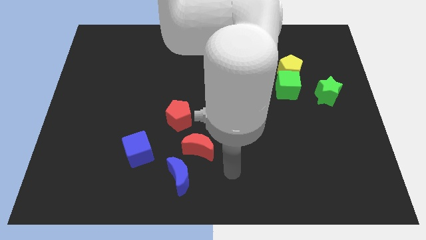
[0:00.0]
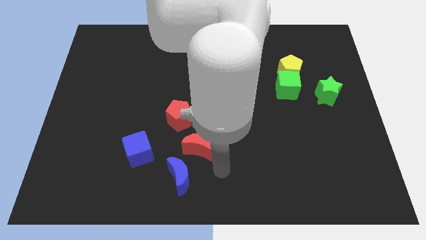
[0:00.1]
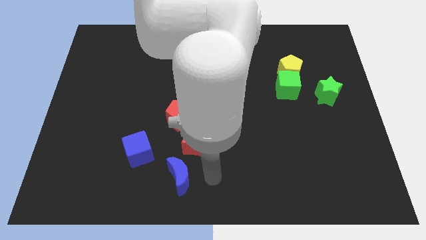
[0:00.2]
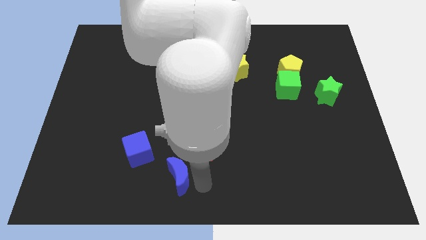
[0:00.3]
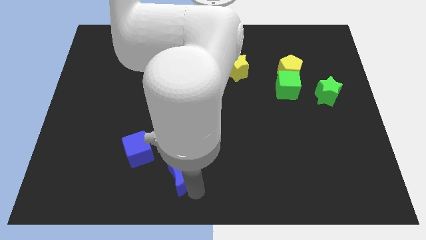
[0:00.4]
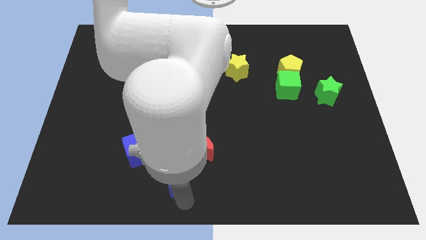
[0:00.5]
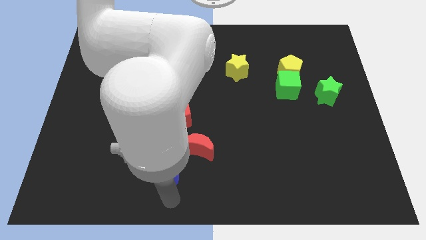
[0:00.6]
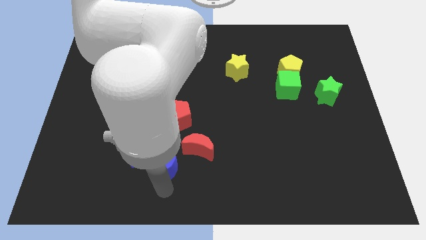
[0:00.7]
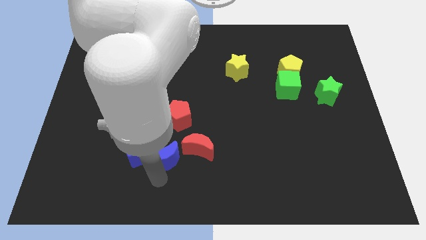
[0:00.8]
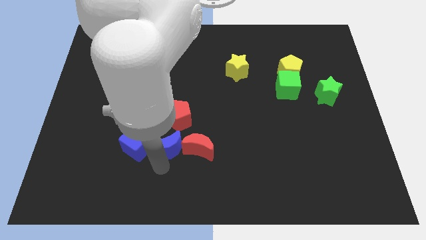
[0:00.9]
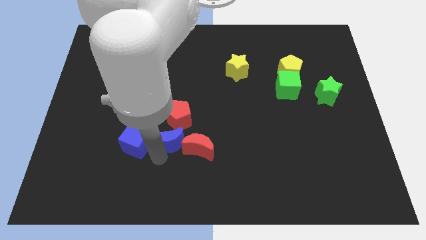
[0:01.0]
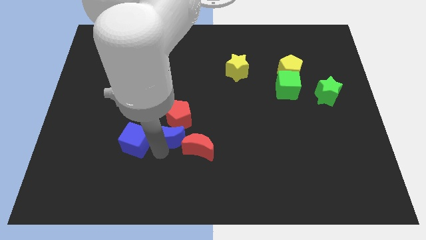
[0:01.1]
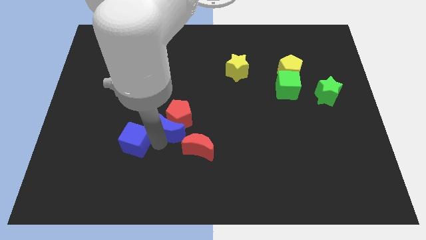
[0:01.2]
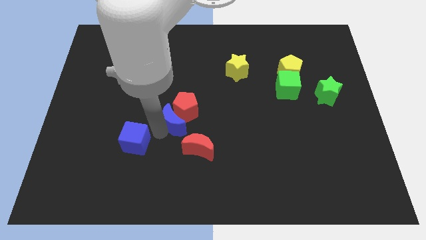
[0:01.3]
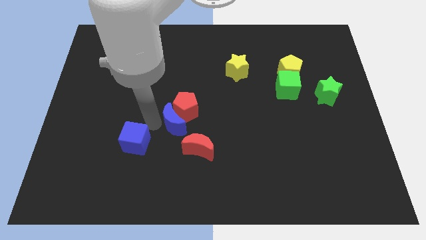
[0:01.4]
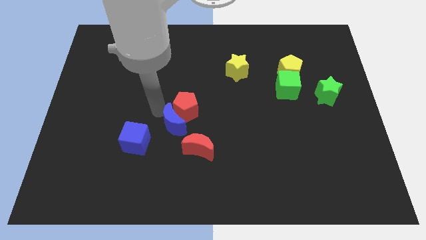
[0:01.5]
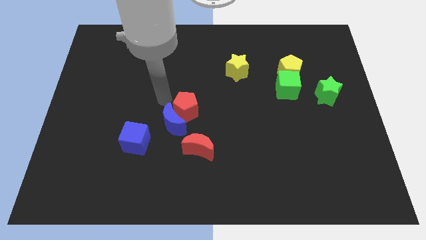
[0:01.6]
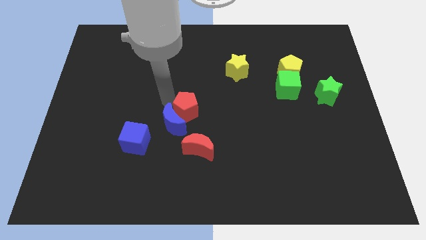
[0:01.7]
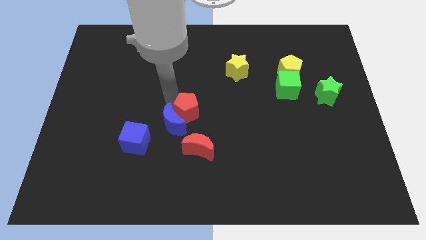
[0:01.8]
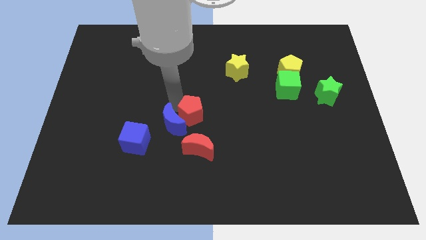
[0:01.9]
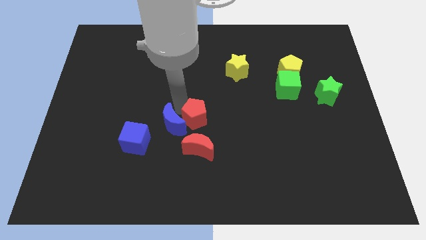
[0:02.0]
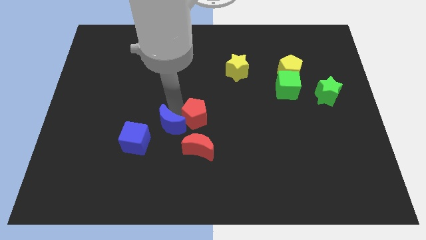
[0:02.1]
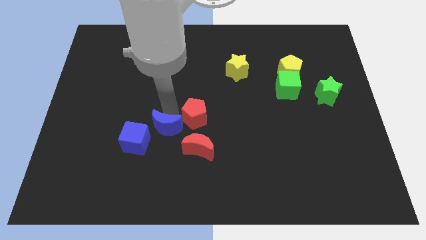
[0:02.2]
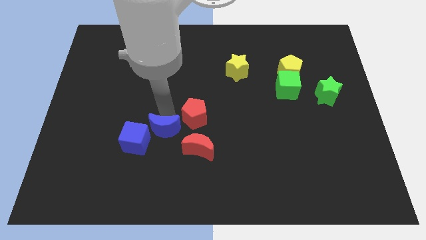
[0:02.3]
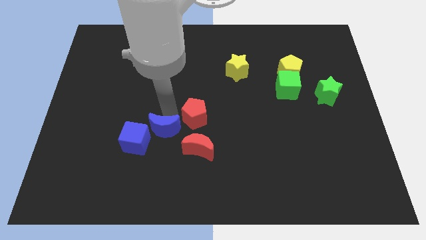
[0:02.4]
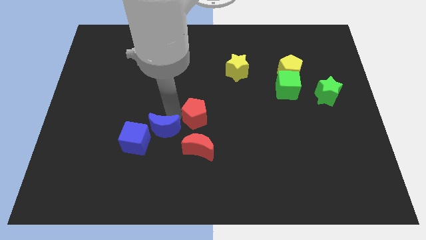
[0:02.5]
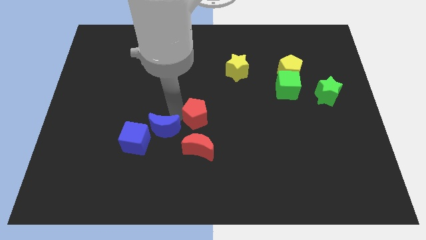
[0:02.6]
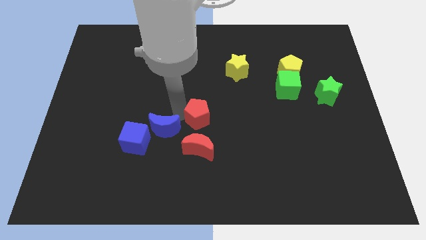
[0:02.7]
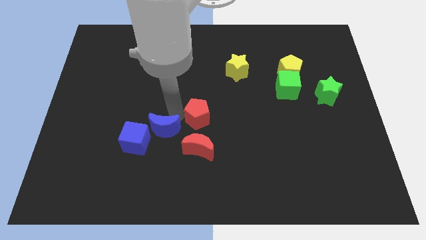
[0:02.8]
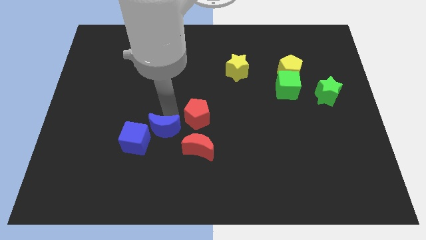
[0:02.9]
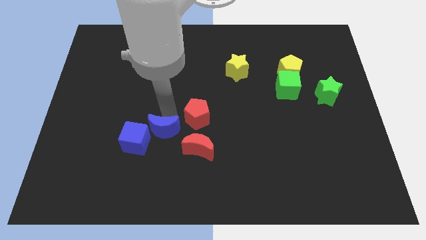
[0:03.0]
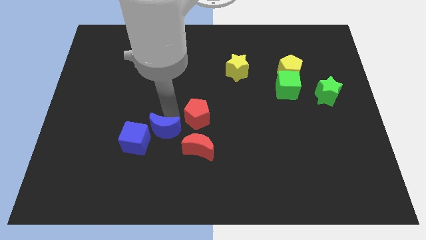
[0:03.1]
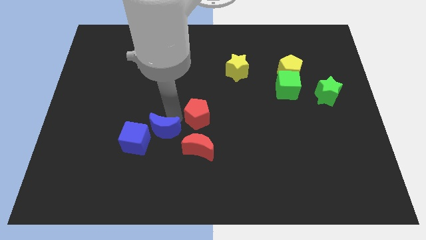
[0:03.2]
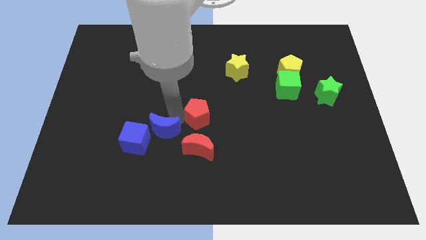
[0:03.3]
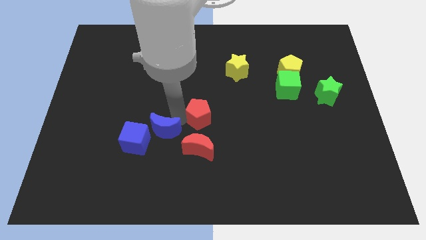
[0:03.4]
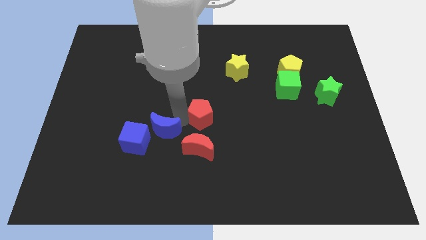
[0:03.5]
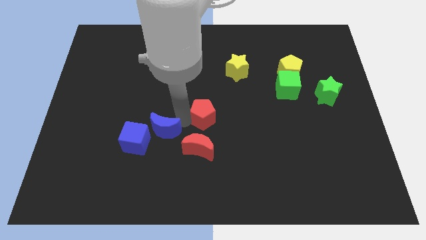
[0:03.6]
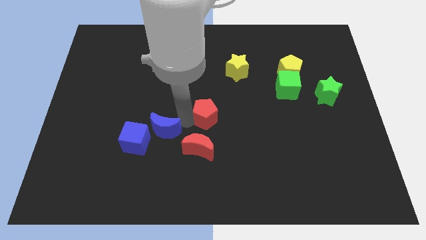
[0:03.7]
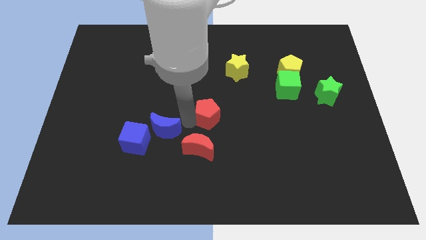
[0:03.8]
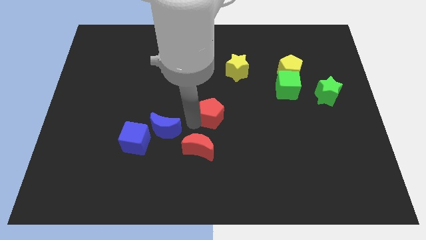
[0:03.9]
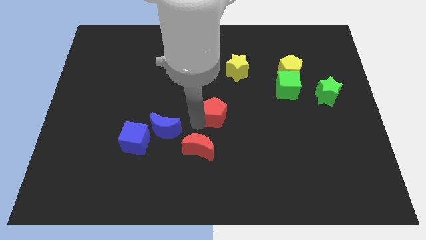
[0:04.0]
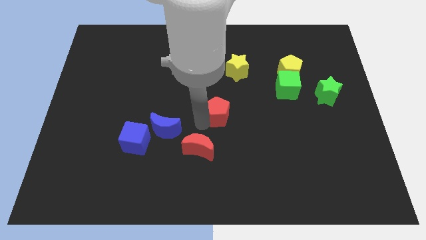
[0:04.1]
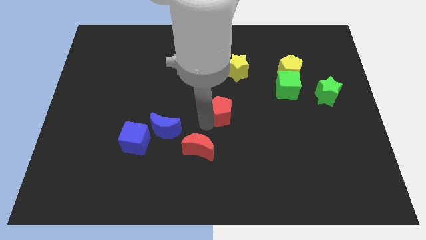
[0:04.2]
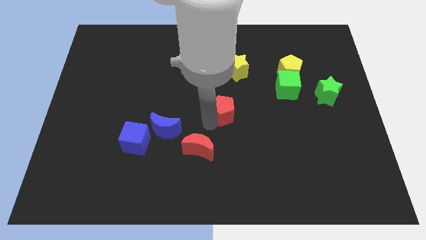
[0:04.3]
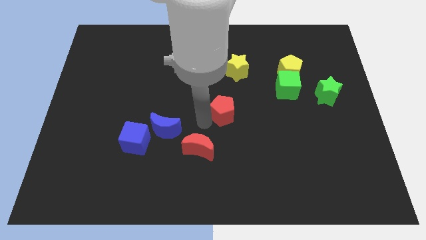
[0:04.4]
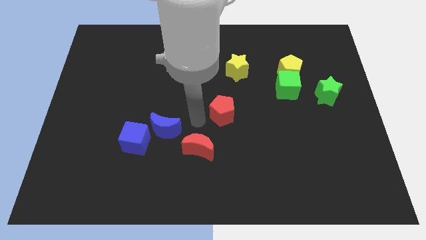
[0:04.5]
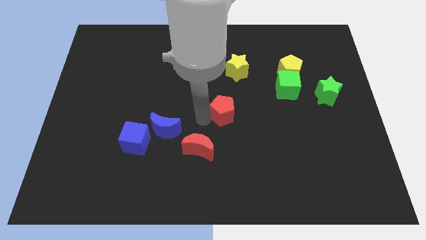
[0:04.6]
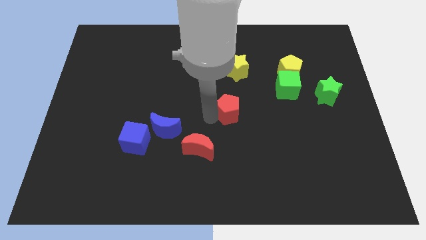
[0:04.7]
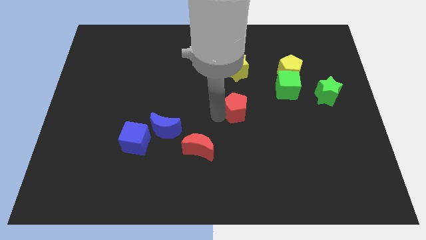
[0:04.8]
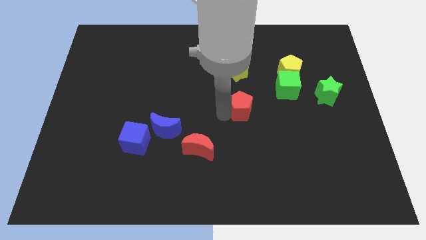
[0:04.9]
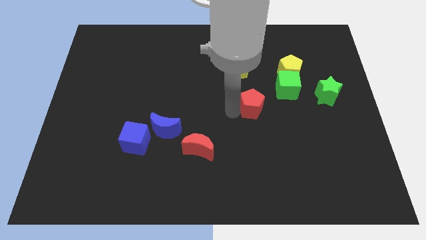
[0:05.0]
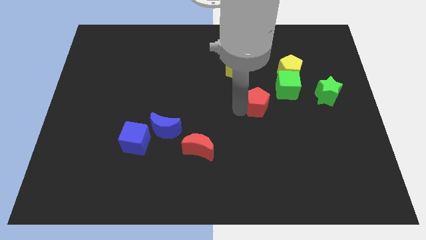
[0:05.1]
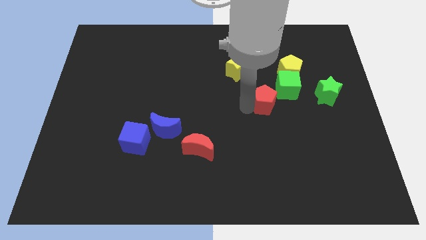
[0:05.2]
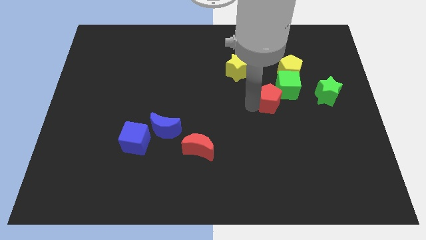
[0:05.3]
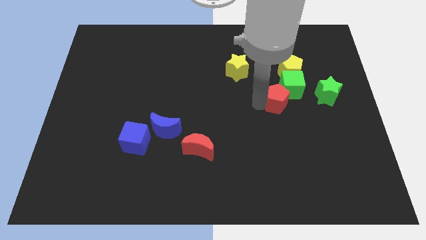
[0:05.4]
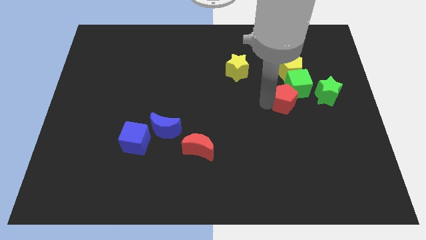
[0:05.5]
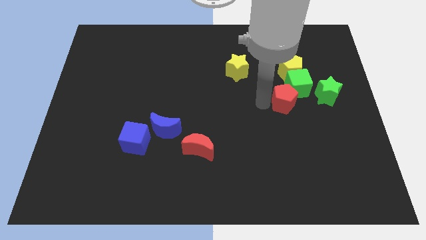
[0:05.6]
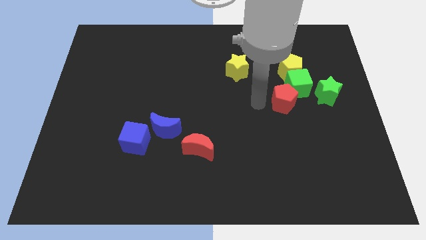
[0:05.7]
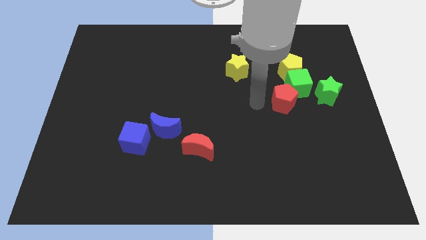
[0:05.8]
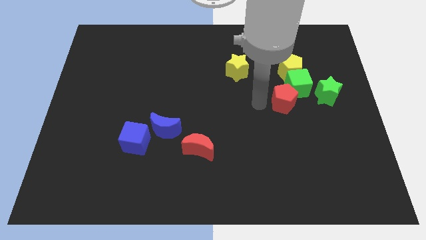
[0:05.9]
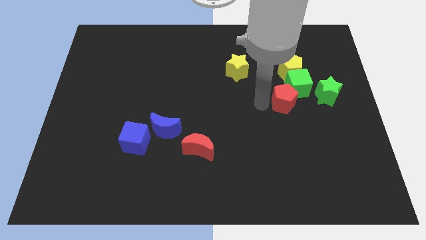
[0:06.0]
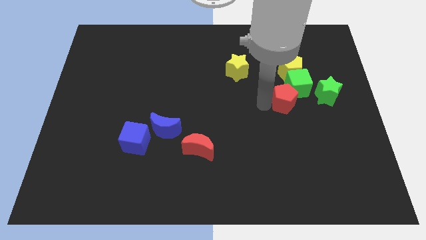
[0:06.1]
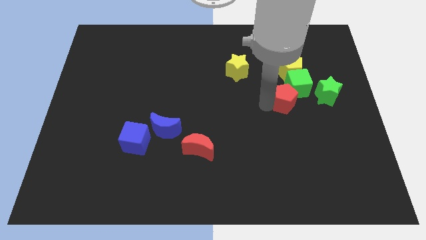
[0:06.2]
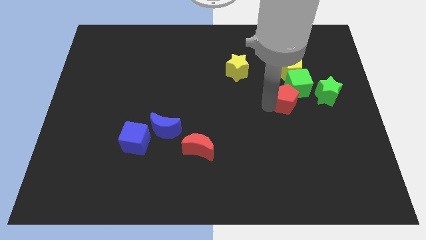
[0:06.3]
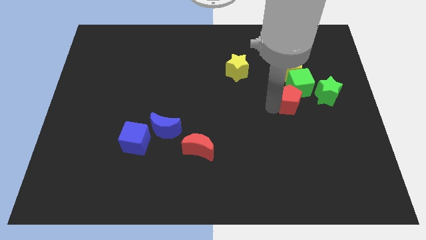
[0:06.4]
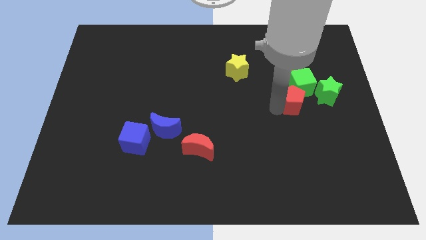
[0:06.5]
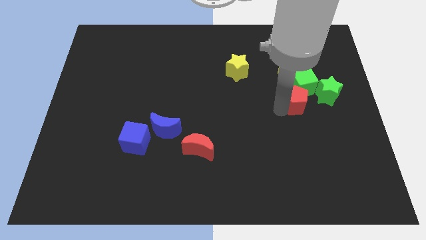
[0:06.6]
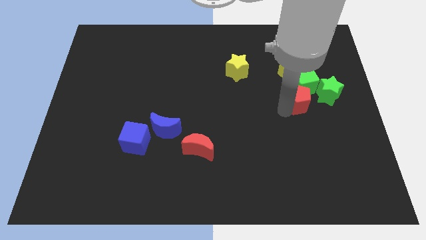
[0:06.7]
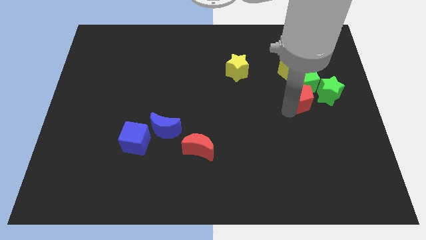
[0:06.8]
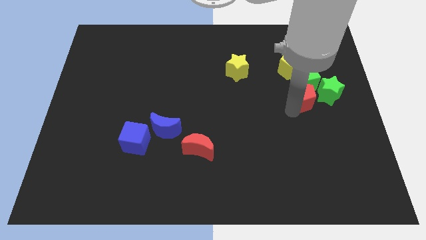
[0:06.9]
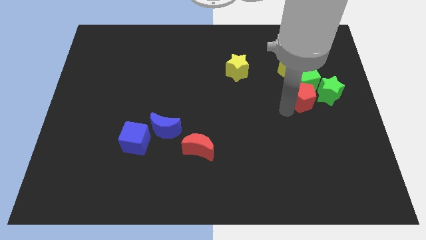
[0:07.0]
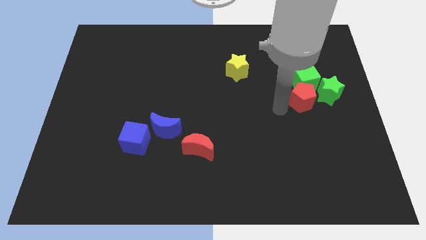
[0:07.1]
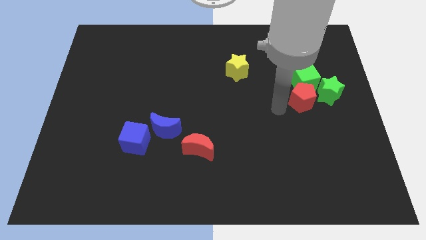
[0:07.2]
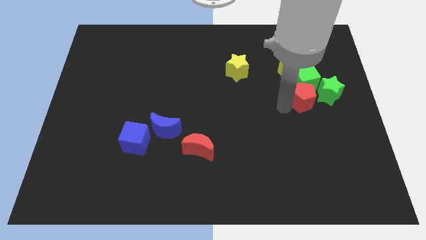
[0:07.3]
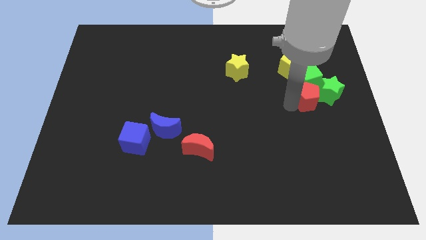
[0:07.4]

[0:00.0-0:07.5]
push the red pentagon next to the green star
